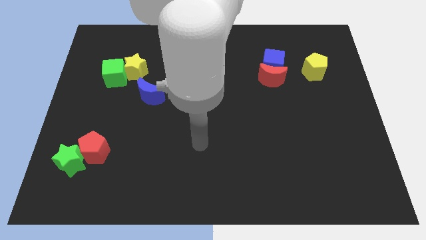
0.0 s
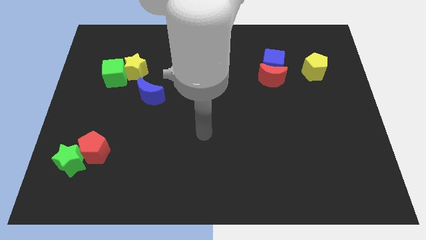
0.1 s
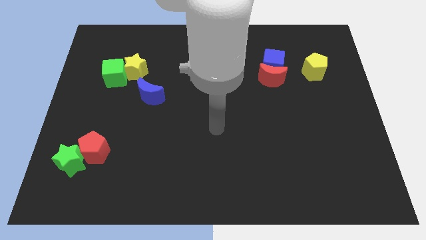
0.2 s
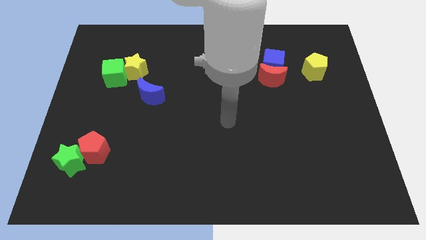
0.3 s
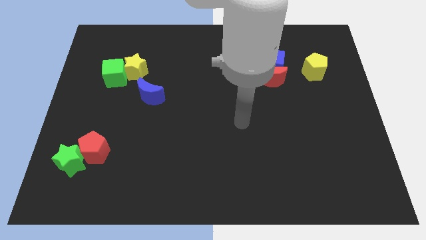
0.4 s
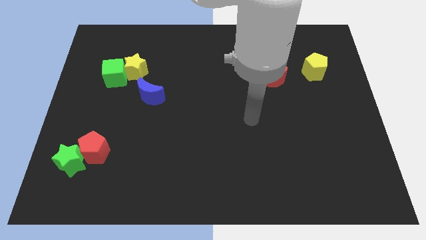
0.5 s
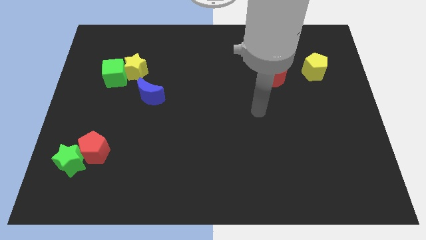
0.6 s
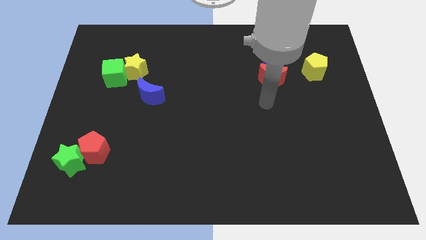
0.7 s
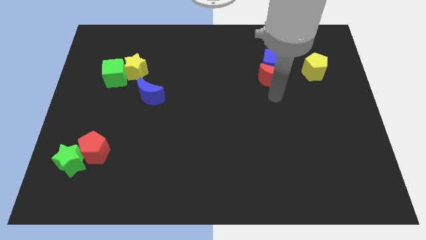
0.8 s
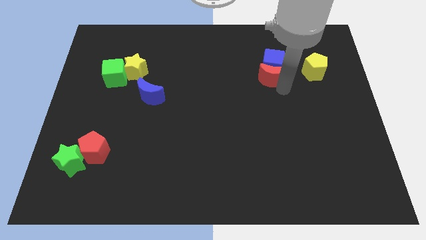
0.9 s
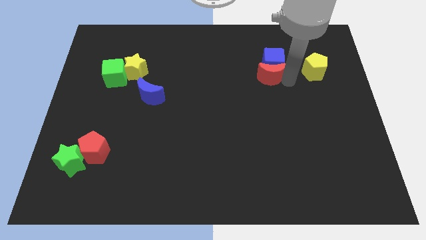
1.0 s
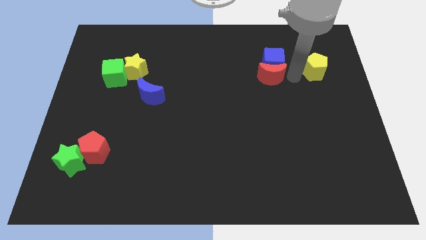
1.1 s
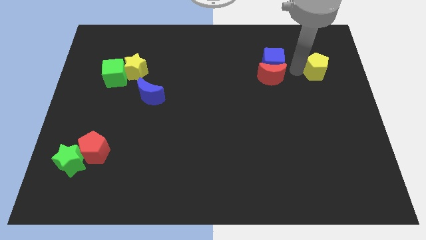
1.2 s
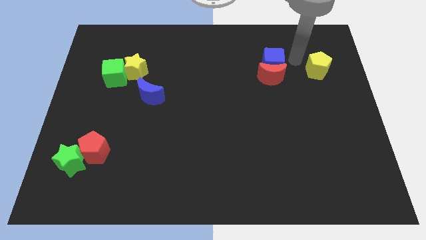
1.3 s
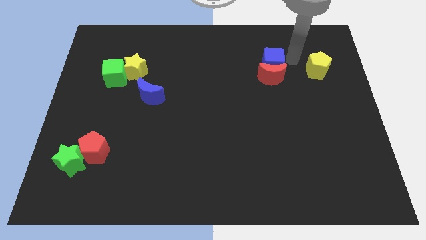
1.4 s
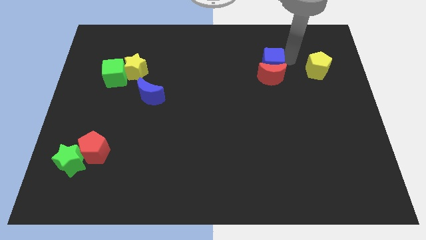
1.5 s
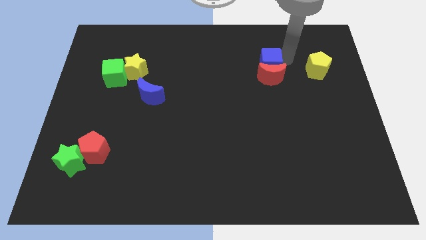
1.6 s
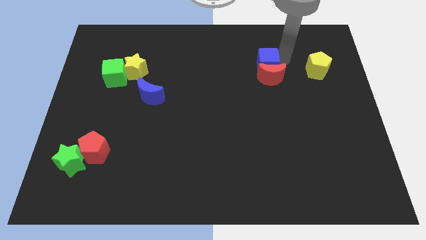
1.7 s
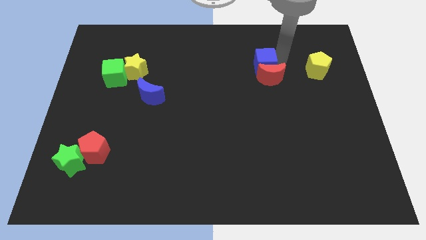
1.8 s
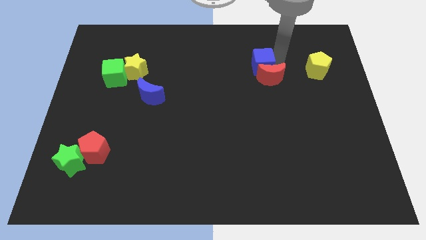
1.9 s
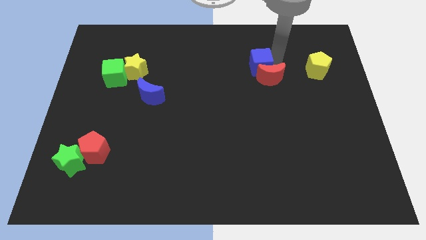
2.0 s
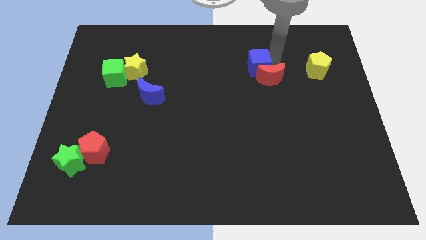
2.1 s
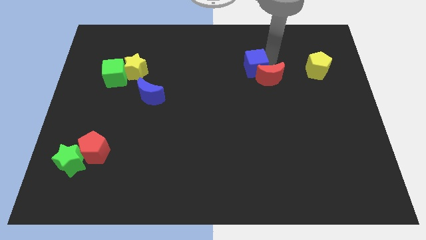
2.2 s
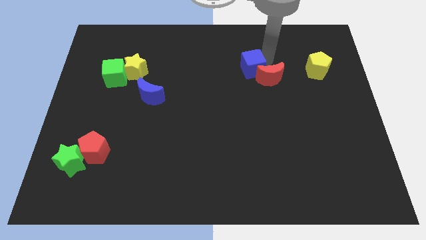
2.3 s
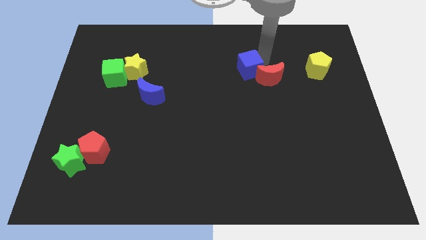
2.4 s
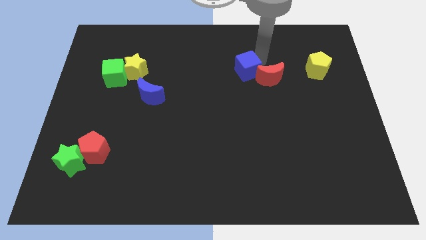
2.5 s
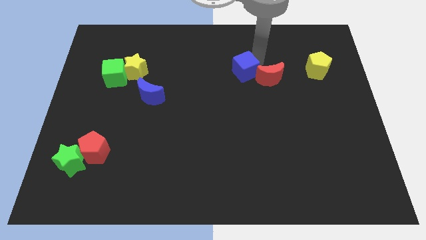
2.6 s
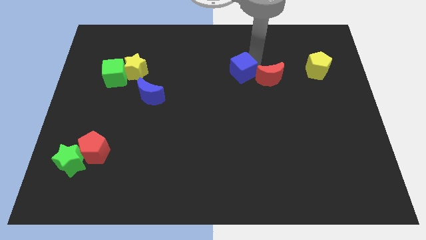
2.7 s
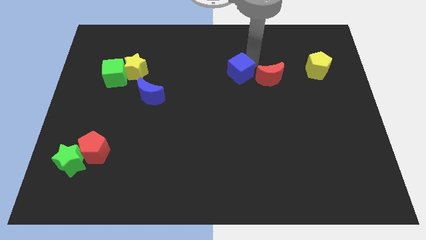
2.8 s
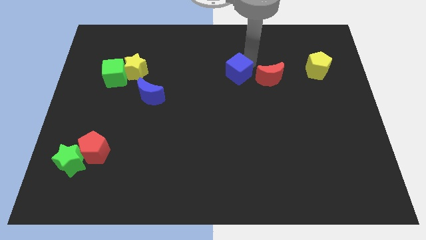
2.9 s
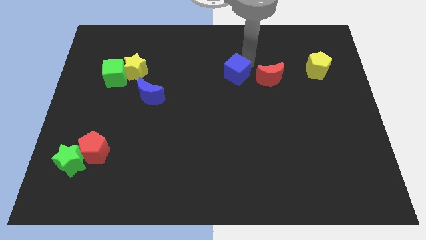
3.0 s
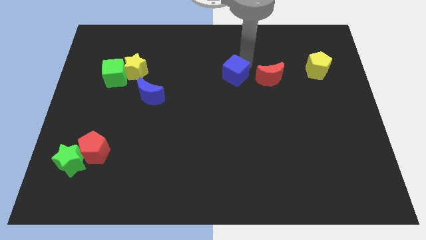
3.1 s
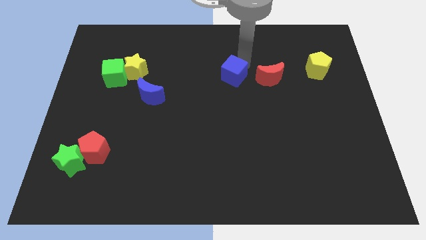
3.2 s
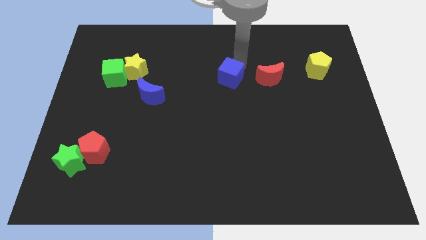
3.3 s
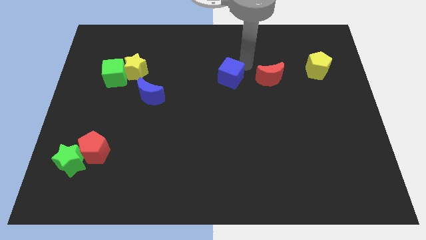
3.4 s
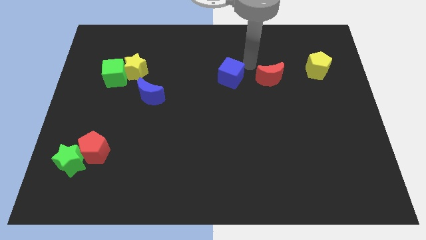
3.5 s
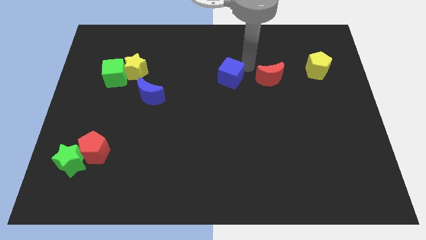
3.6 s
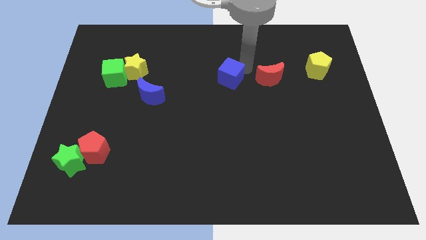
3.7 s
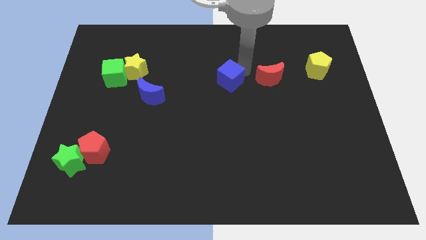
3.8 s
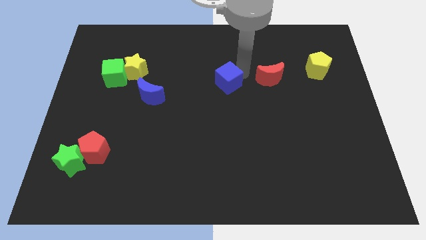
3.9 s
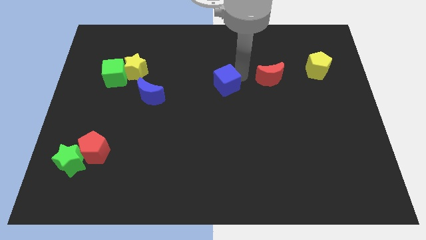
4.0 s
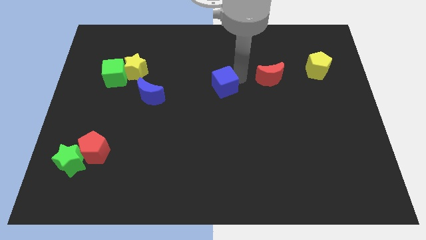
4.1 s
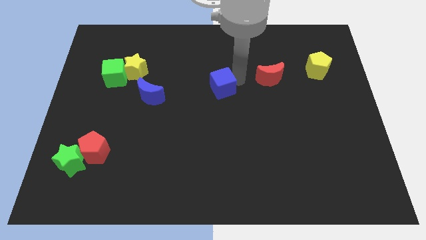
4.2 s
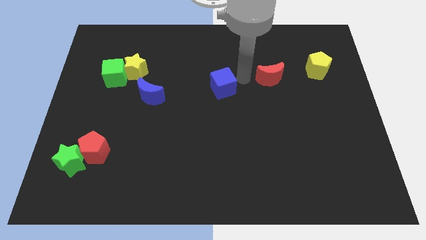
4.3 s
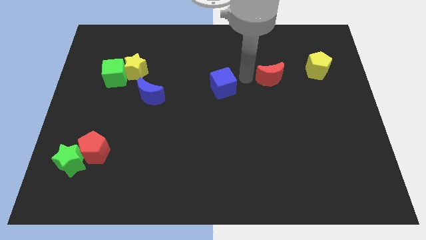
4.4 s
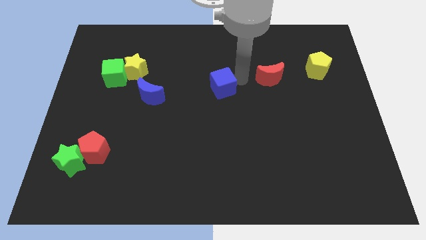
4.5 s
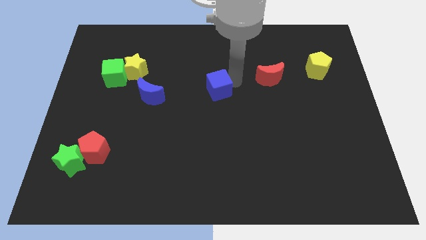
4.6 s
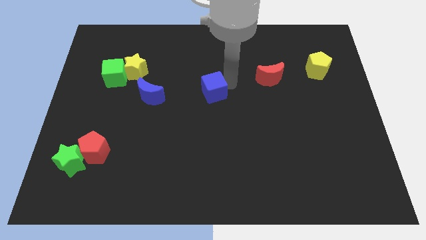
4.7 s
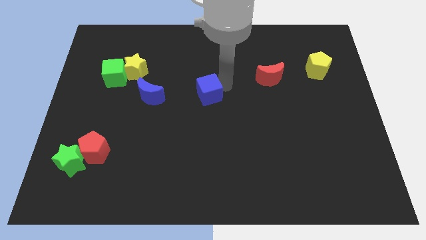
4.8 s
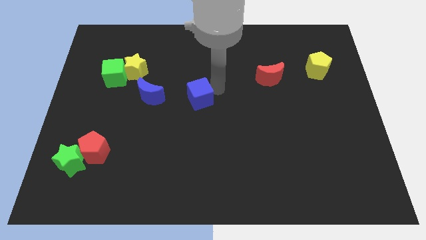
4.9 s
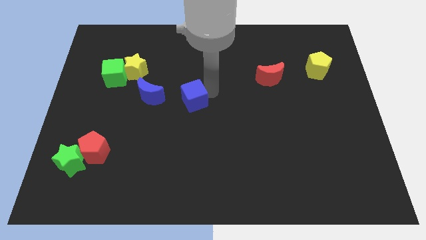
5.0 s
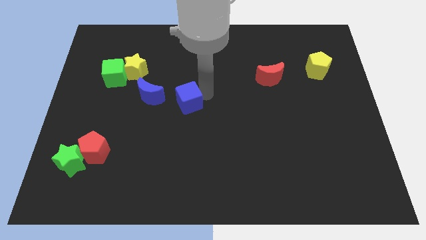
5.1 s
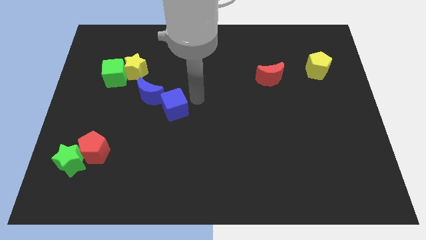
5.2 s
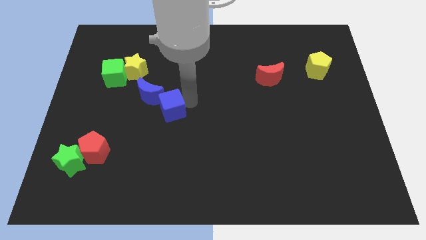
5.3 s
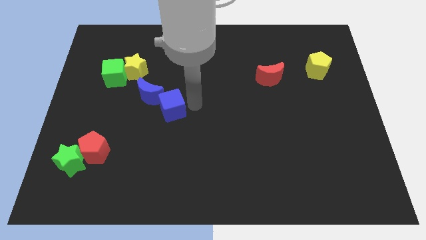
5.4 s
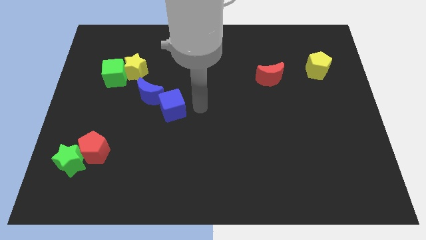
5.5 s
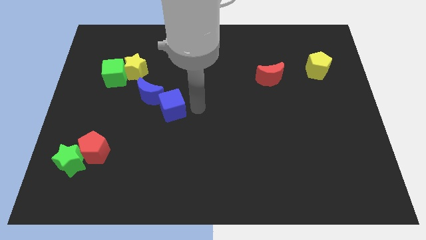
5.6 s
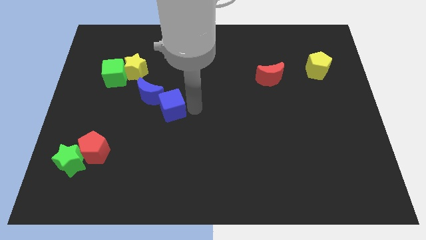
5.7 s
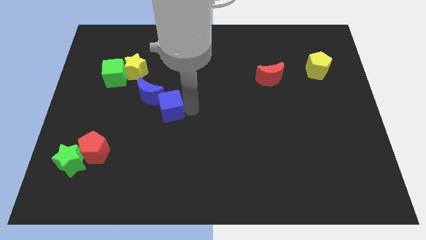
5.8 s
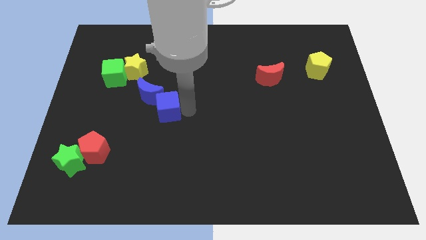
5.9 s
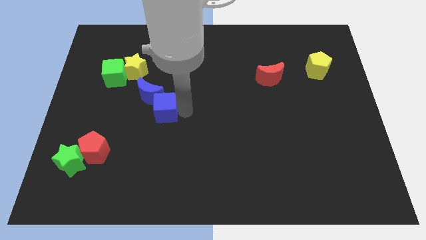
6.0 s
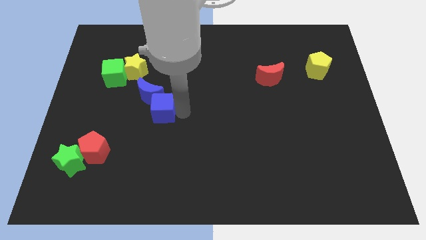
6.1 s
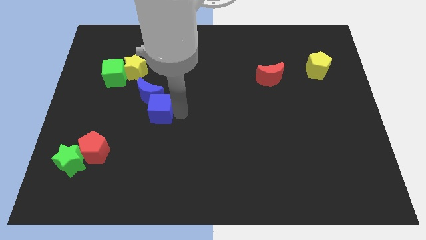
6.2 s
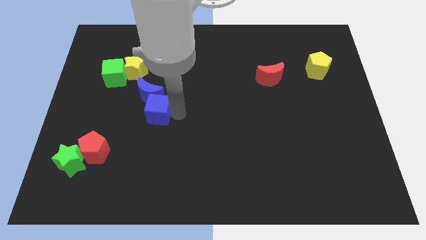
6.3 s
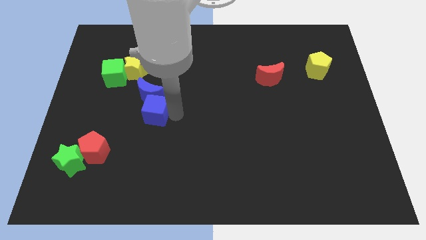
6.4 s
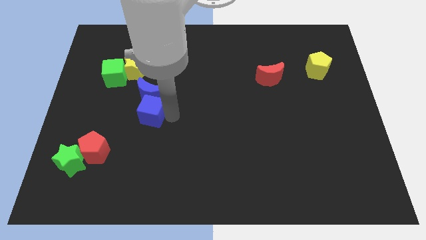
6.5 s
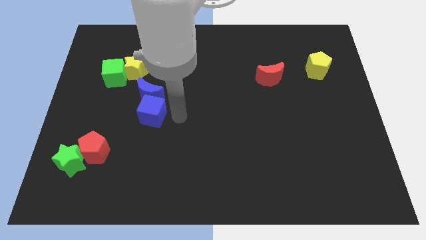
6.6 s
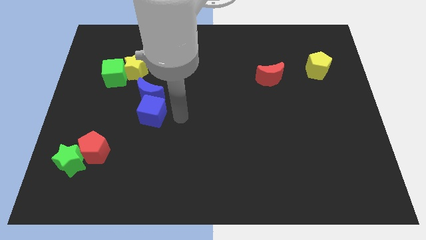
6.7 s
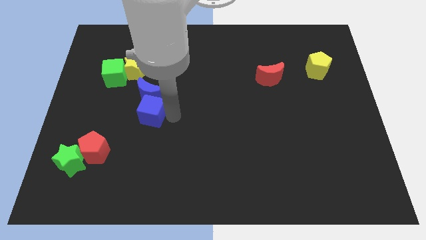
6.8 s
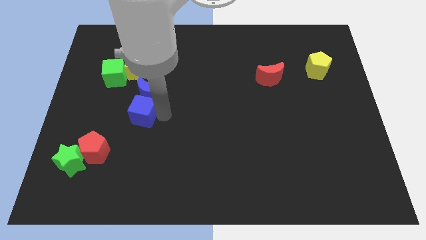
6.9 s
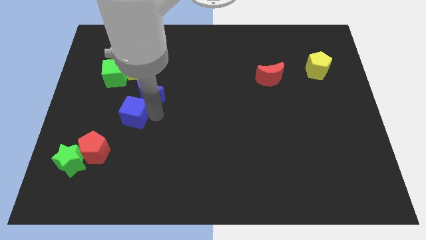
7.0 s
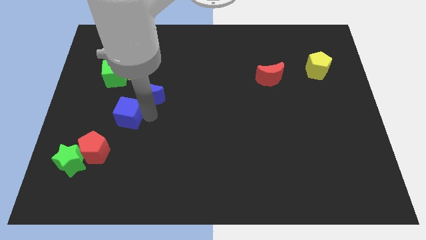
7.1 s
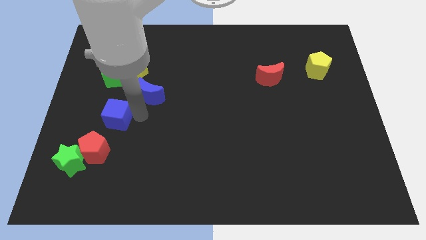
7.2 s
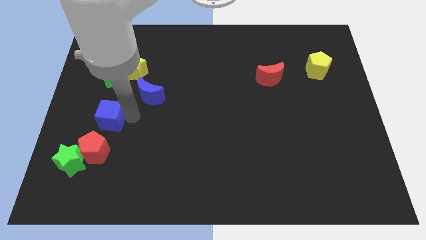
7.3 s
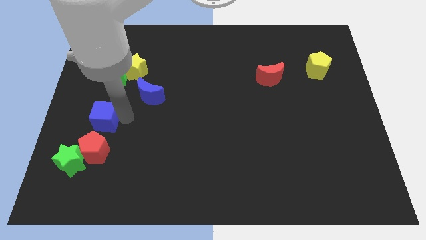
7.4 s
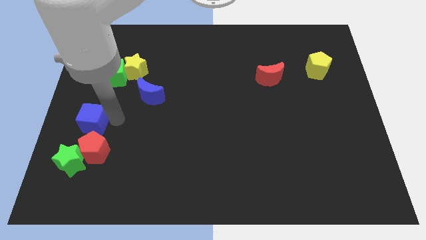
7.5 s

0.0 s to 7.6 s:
put the blue cube to the center left
